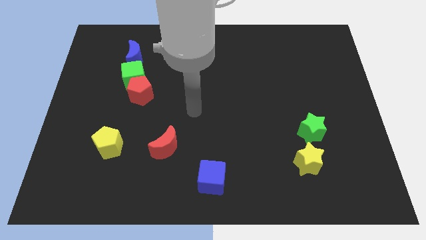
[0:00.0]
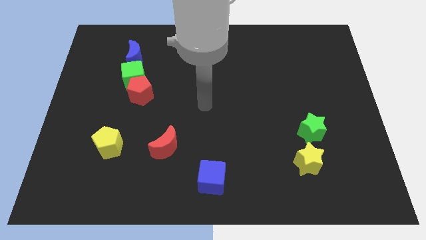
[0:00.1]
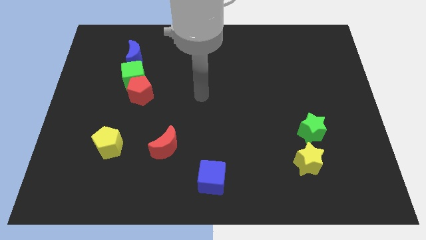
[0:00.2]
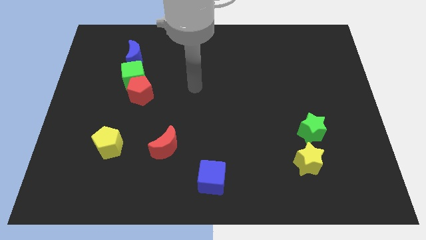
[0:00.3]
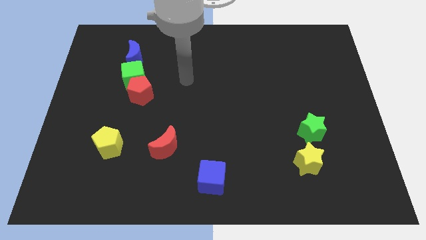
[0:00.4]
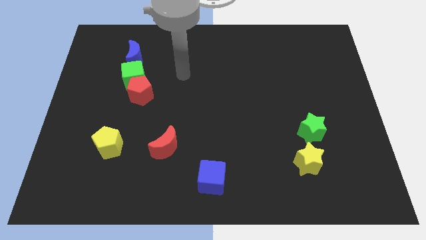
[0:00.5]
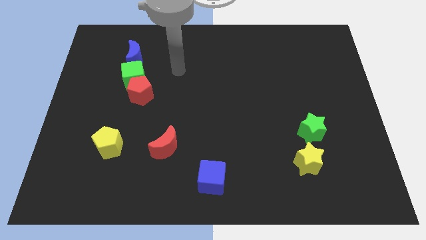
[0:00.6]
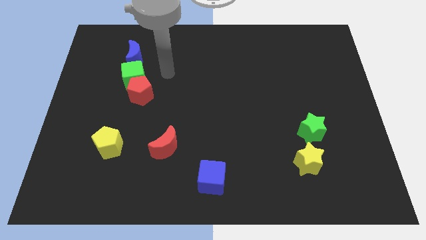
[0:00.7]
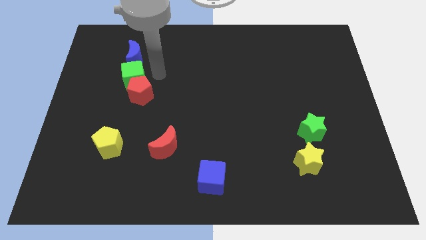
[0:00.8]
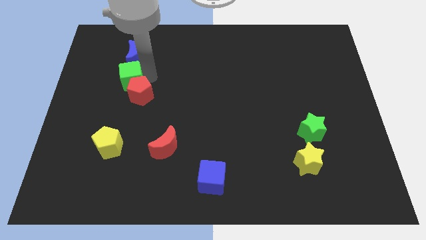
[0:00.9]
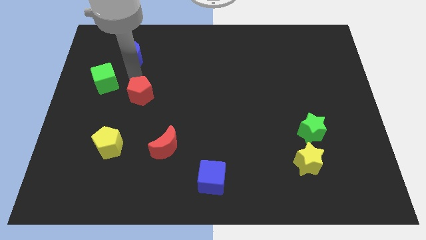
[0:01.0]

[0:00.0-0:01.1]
pull the red pentagon apart from the green cube

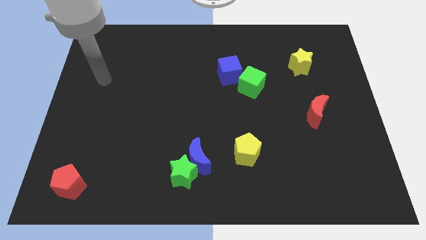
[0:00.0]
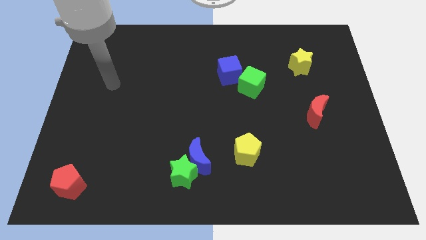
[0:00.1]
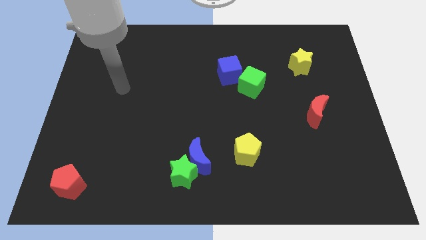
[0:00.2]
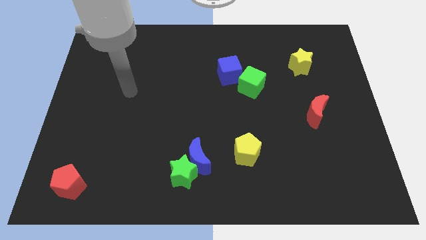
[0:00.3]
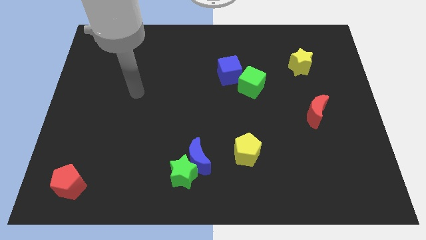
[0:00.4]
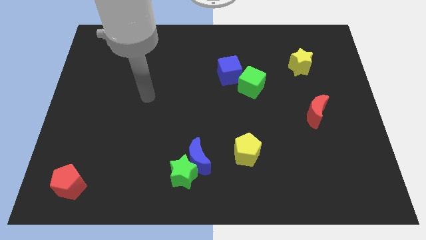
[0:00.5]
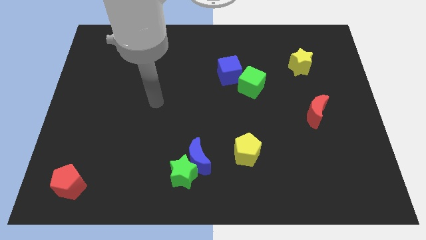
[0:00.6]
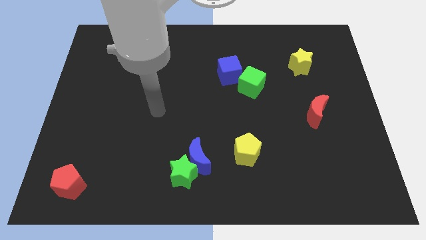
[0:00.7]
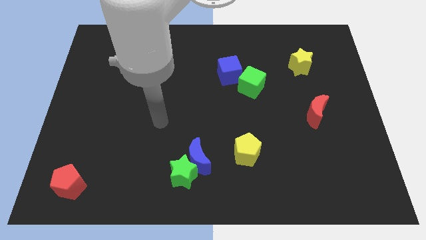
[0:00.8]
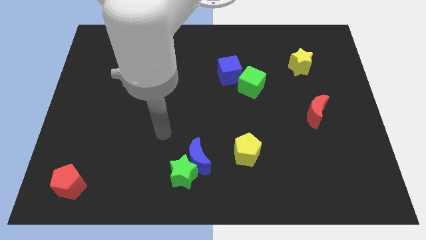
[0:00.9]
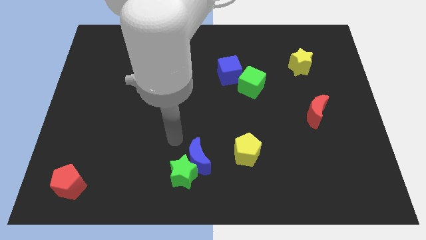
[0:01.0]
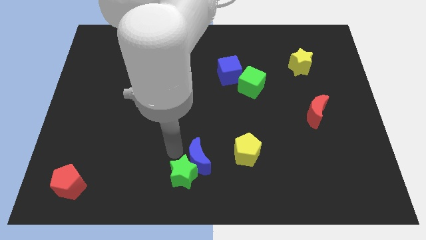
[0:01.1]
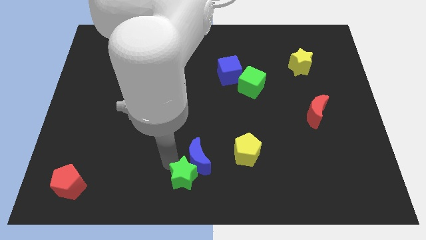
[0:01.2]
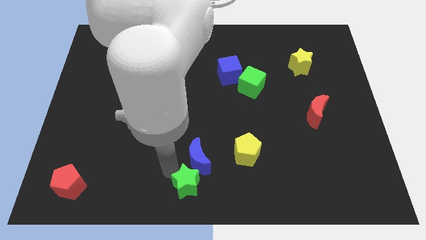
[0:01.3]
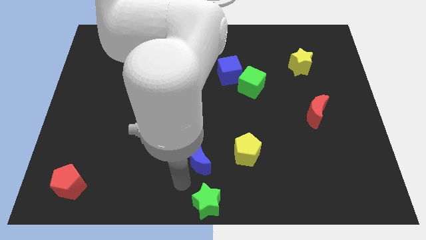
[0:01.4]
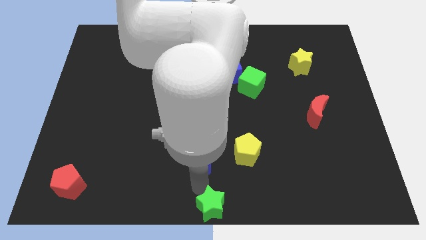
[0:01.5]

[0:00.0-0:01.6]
pull the blue moon apart from the green star

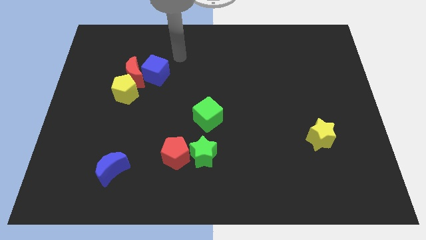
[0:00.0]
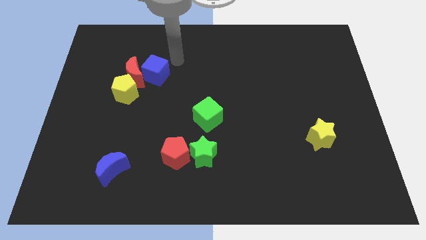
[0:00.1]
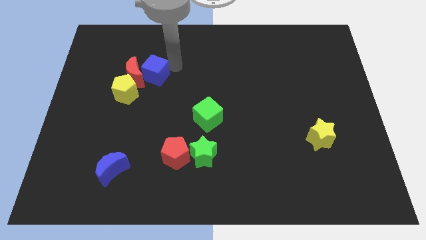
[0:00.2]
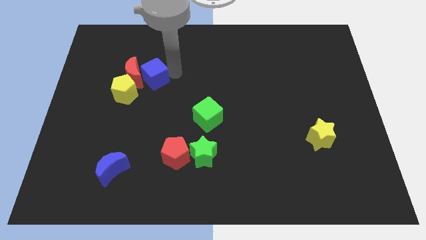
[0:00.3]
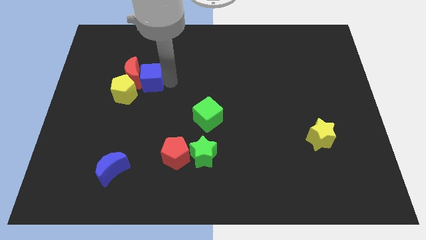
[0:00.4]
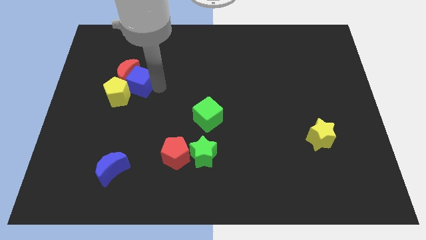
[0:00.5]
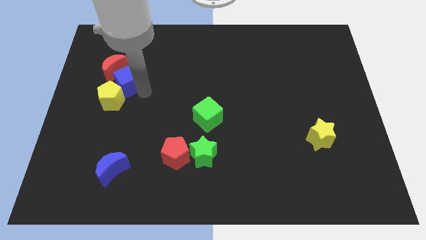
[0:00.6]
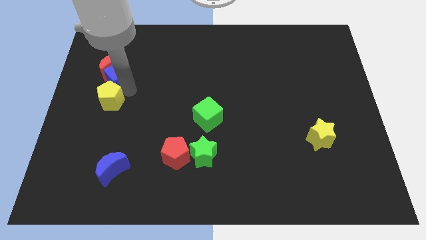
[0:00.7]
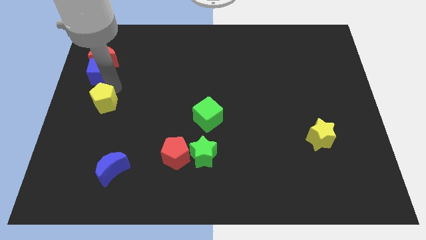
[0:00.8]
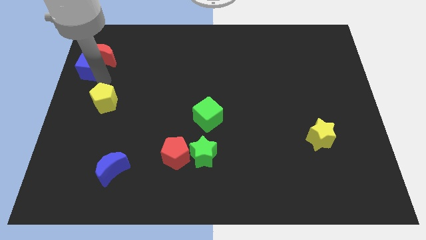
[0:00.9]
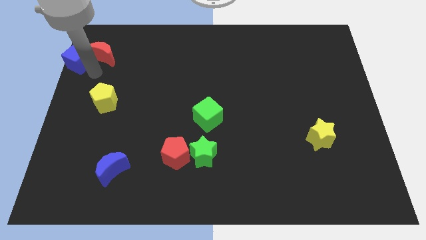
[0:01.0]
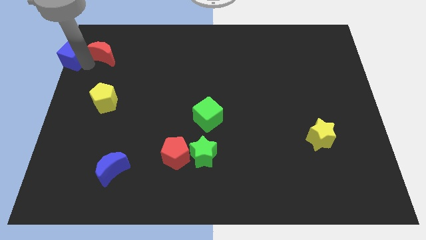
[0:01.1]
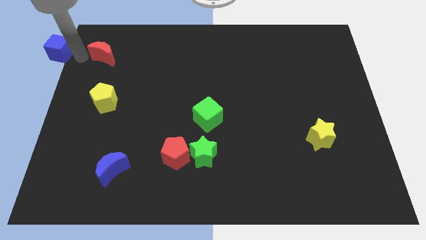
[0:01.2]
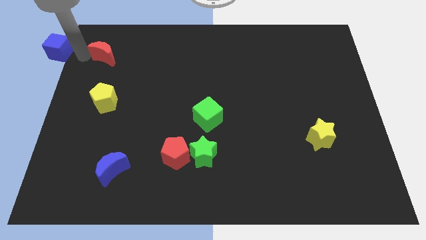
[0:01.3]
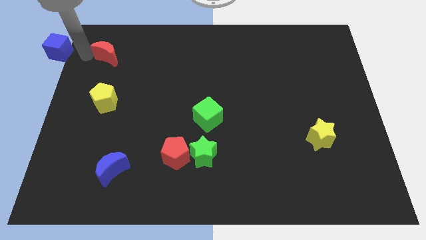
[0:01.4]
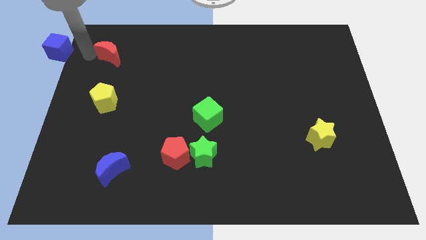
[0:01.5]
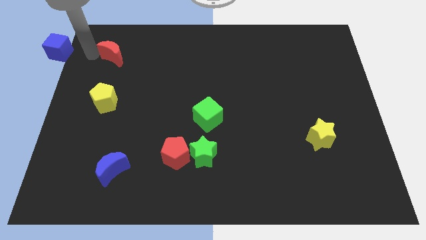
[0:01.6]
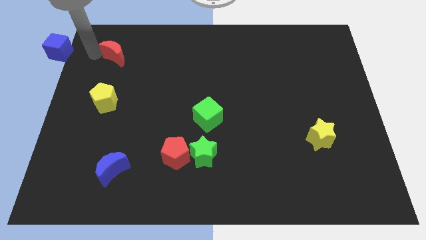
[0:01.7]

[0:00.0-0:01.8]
separate the red moon from the blue cube and yellow pentagon

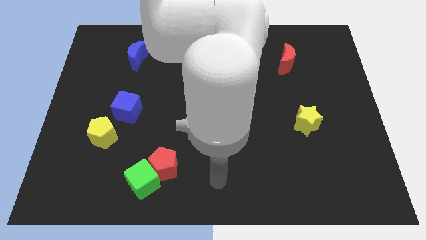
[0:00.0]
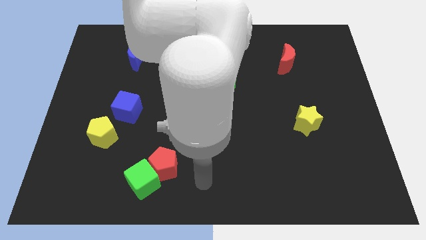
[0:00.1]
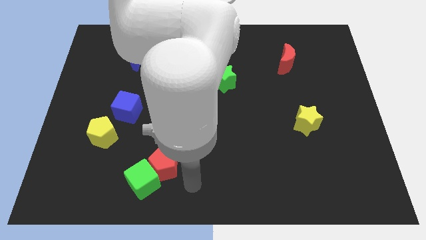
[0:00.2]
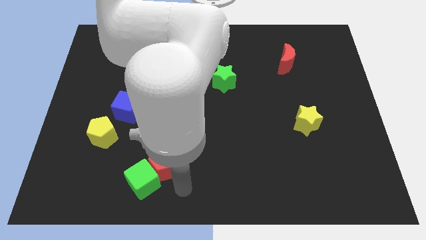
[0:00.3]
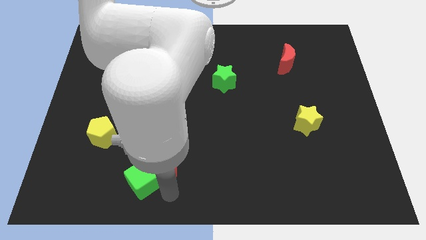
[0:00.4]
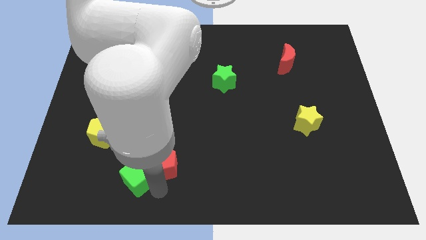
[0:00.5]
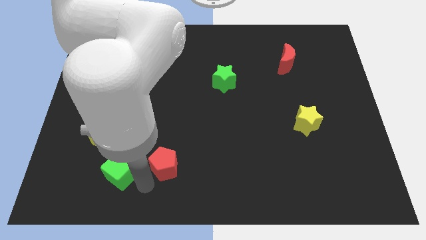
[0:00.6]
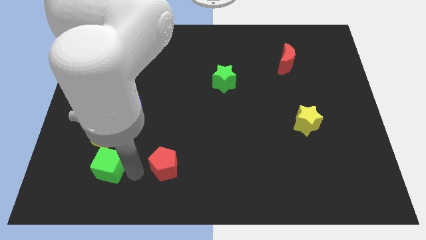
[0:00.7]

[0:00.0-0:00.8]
separate the red pentagon from the green cube

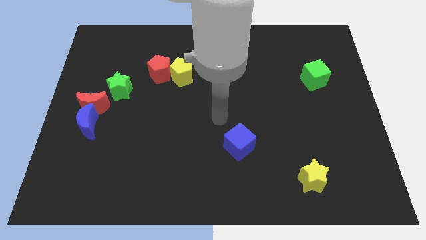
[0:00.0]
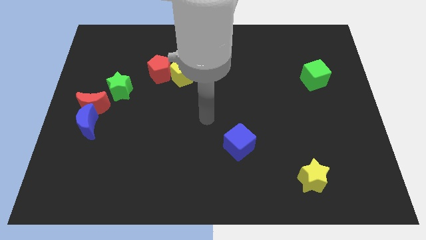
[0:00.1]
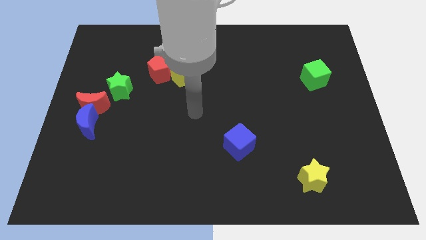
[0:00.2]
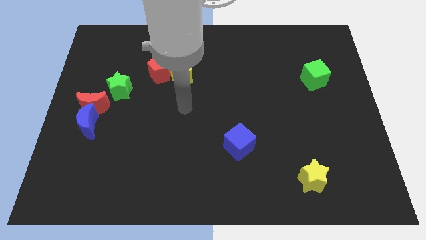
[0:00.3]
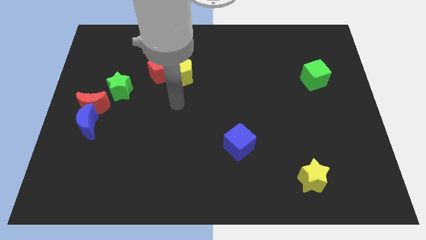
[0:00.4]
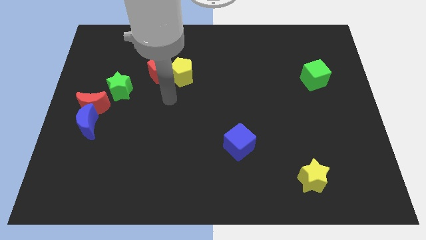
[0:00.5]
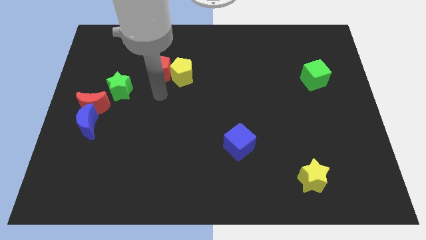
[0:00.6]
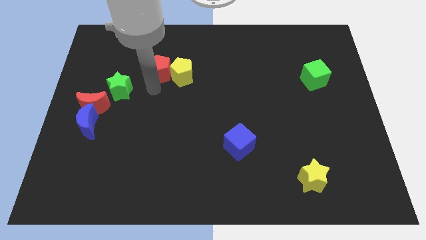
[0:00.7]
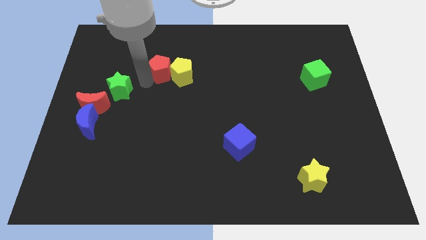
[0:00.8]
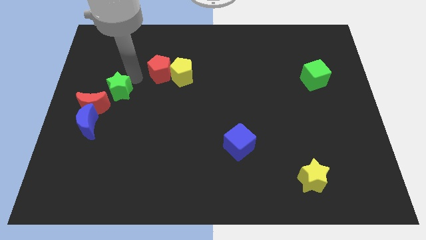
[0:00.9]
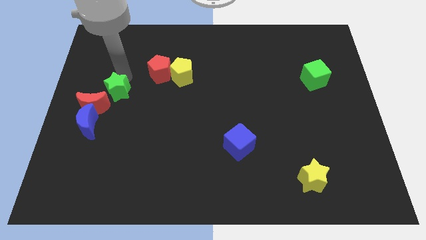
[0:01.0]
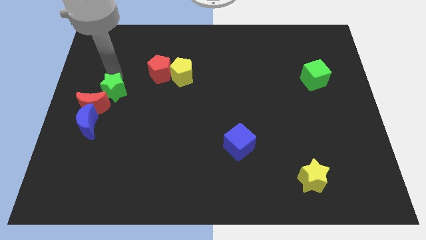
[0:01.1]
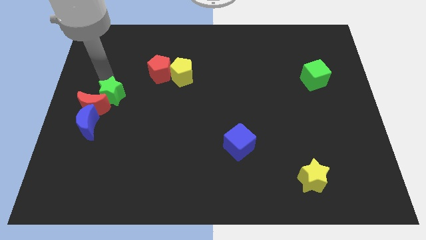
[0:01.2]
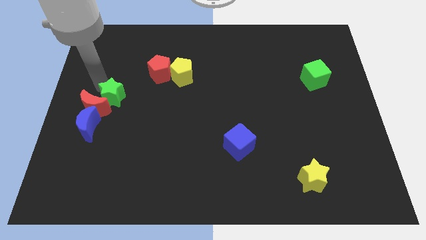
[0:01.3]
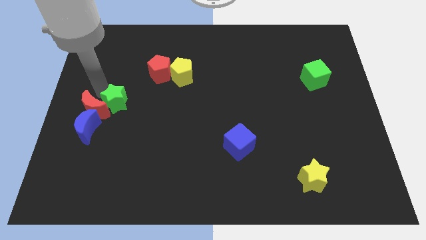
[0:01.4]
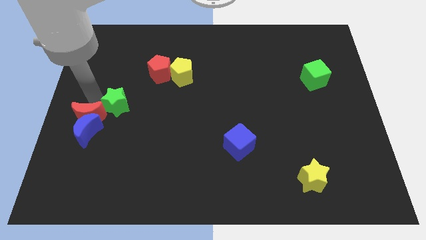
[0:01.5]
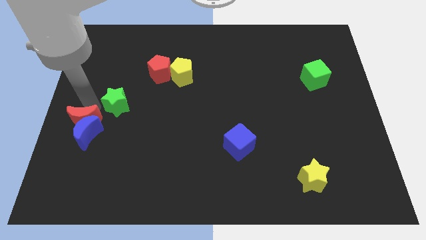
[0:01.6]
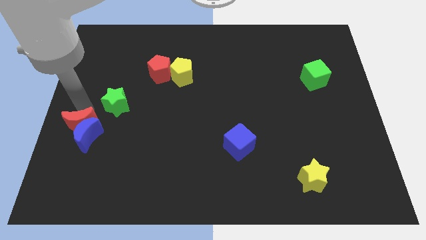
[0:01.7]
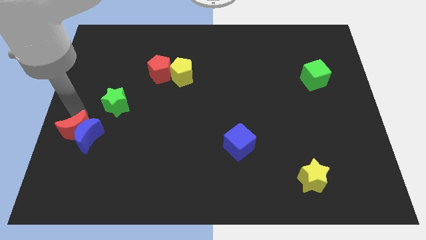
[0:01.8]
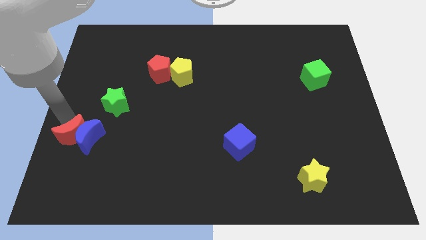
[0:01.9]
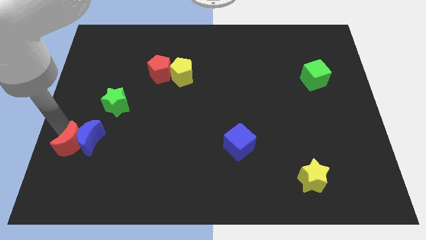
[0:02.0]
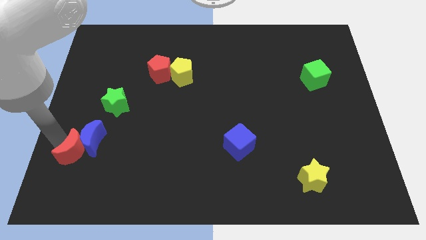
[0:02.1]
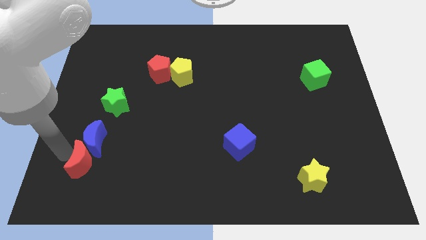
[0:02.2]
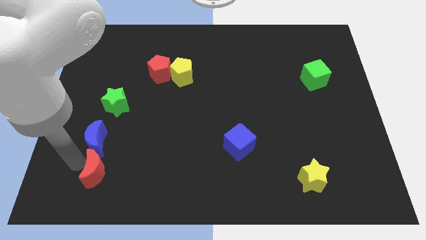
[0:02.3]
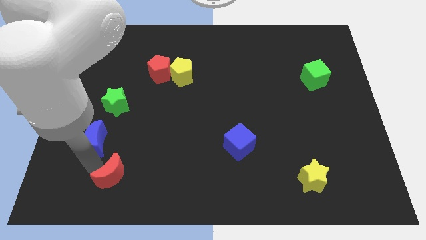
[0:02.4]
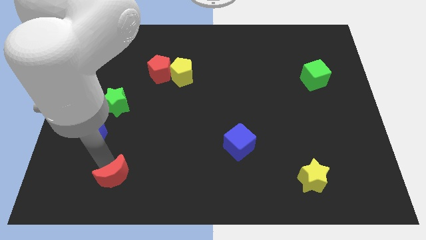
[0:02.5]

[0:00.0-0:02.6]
pull the blue moon apart from the red moon

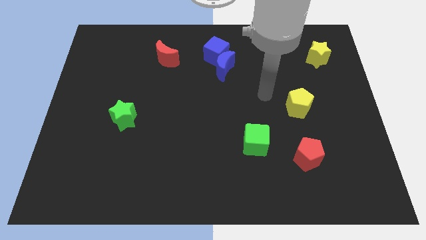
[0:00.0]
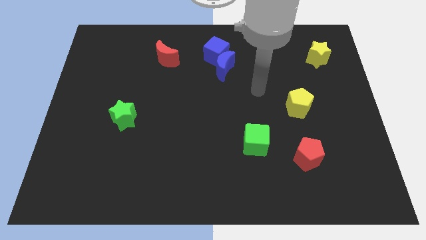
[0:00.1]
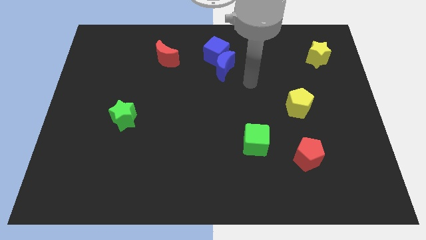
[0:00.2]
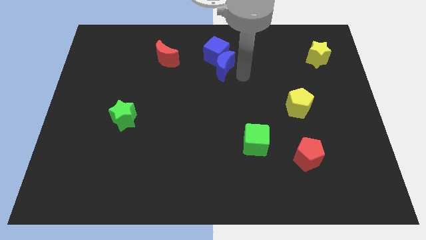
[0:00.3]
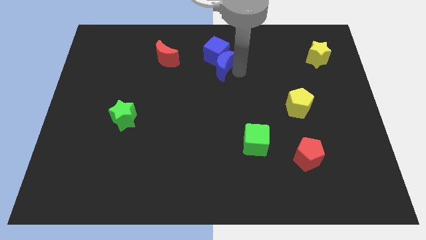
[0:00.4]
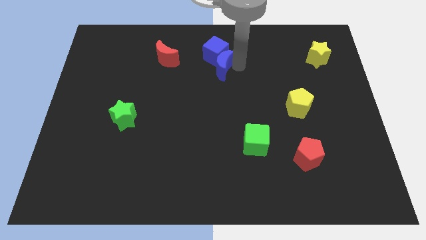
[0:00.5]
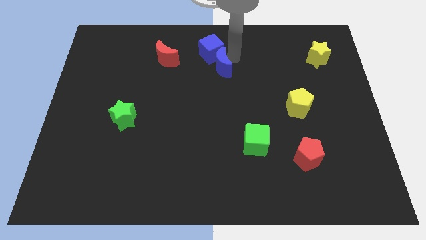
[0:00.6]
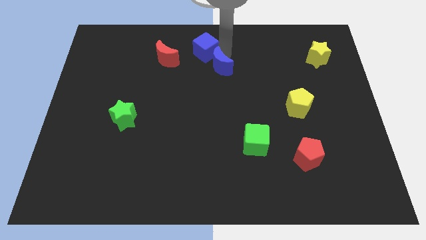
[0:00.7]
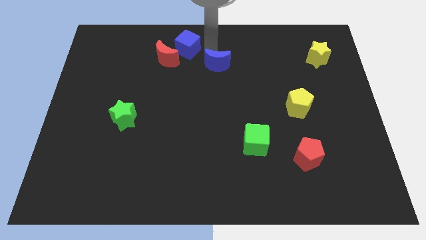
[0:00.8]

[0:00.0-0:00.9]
pull the blue moon apart from the blue cube

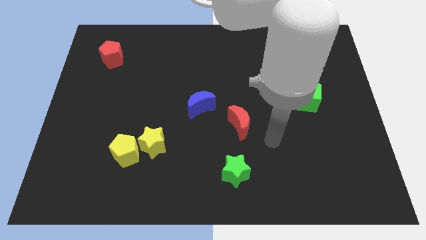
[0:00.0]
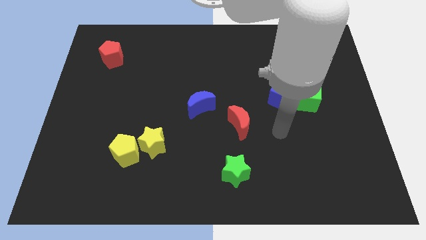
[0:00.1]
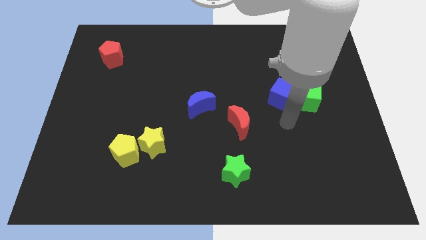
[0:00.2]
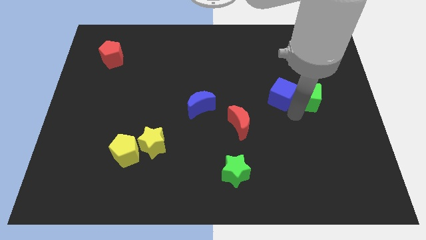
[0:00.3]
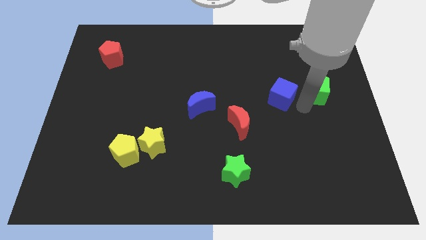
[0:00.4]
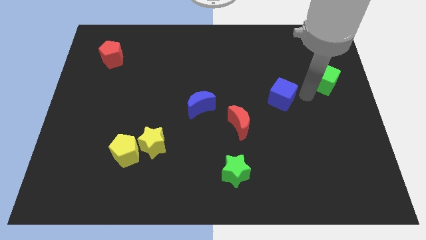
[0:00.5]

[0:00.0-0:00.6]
move the blue cube away from the green cube

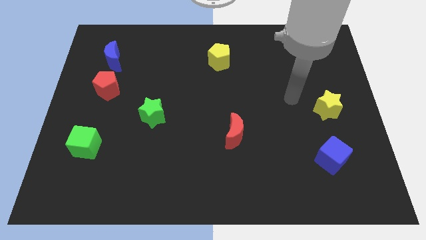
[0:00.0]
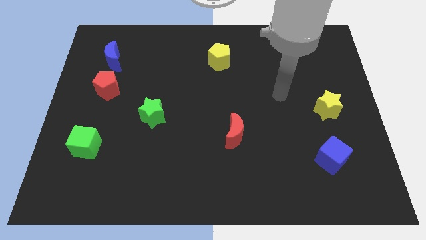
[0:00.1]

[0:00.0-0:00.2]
separate the red pentagon from the blue moon
